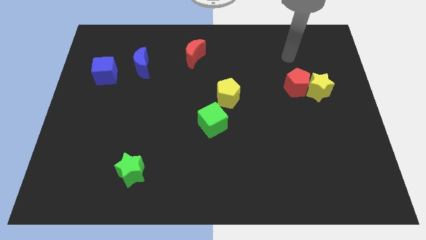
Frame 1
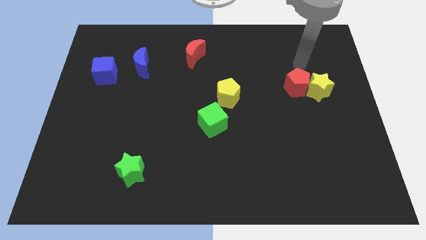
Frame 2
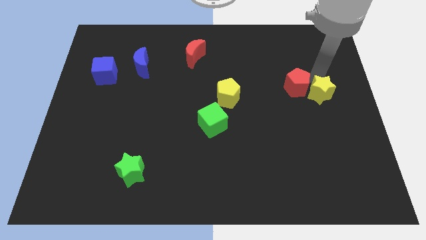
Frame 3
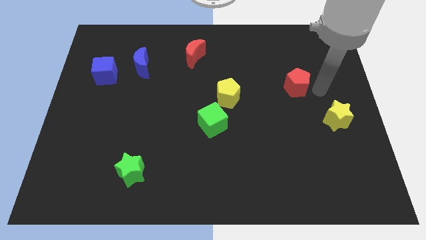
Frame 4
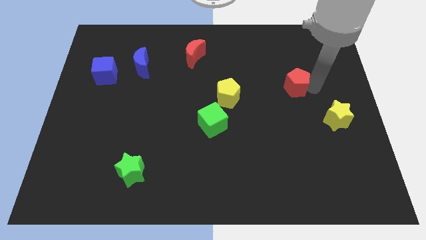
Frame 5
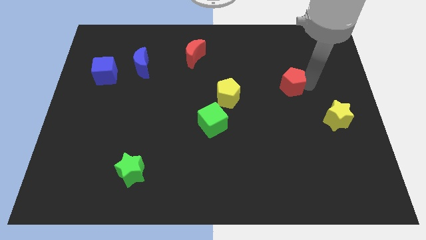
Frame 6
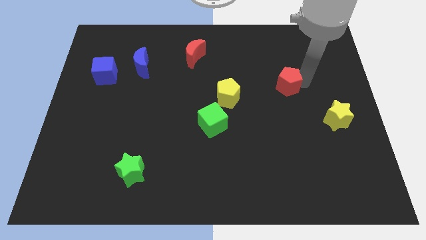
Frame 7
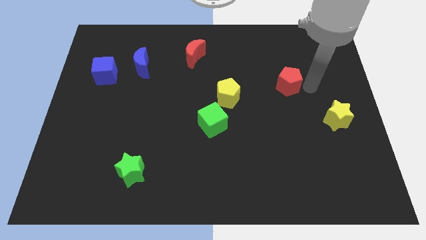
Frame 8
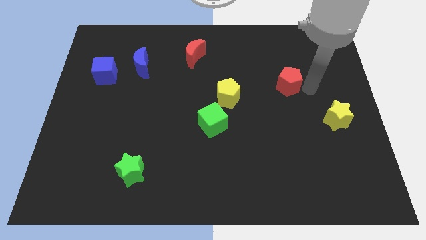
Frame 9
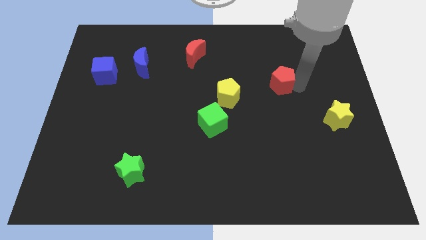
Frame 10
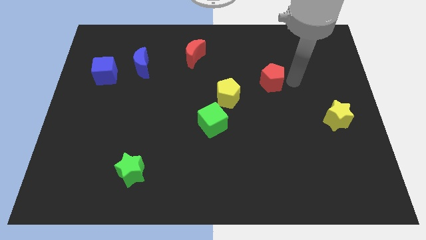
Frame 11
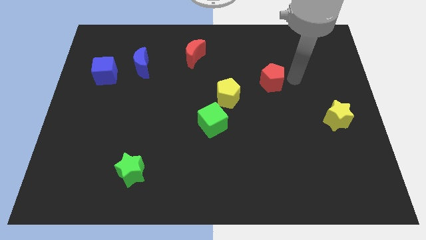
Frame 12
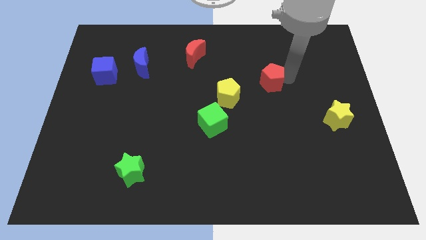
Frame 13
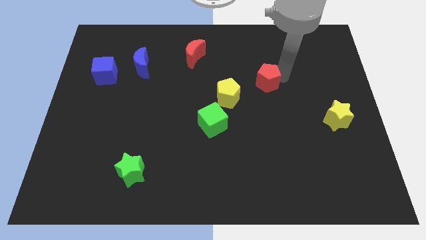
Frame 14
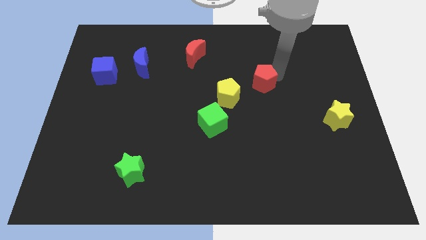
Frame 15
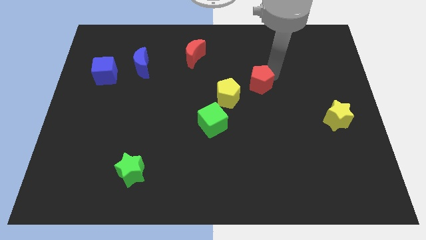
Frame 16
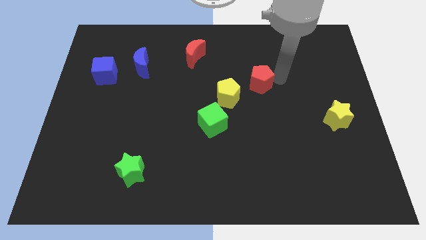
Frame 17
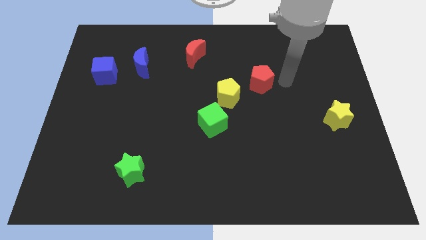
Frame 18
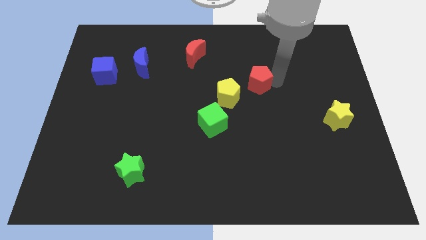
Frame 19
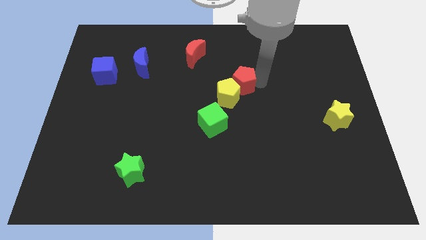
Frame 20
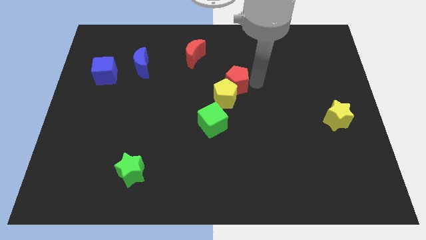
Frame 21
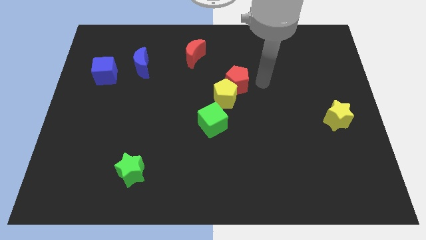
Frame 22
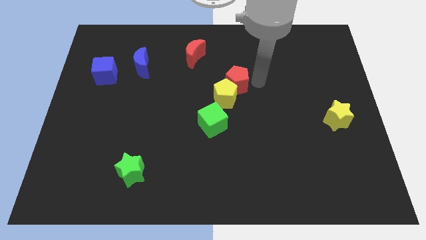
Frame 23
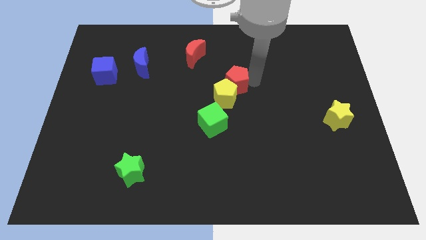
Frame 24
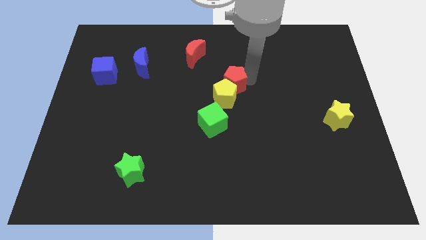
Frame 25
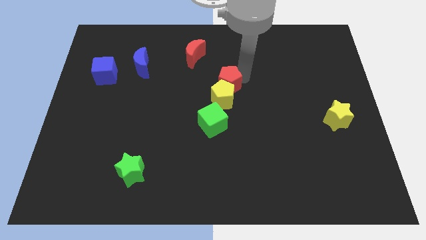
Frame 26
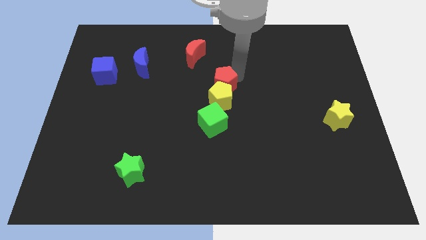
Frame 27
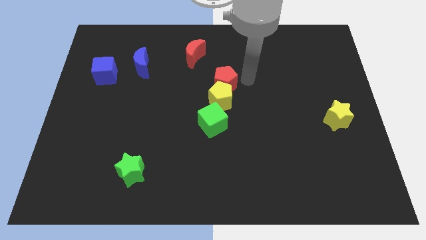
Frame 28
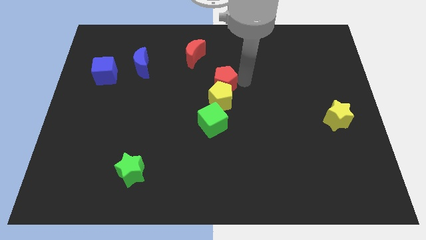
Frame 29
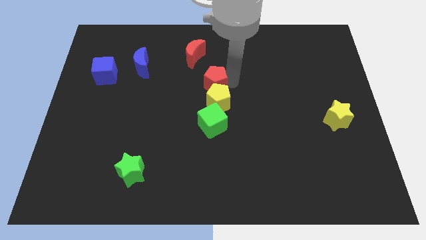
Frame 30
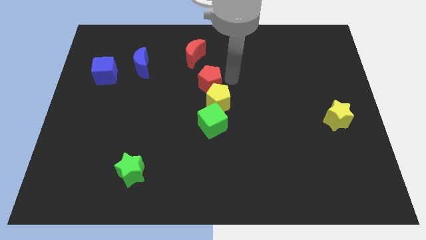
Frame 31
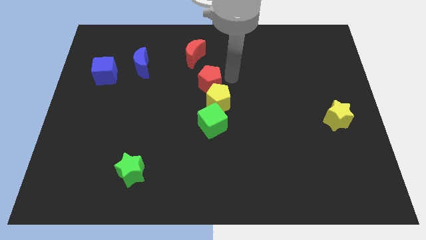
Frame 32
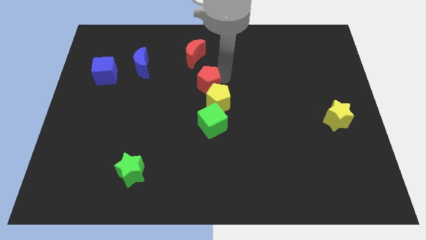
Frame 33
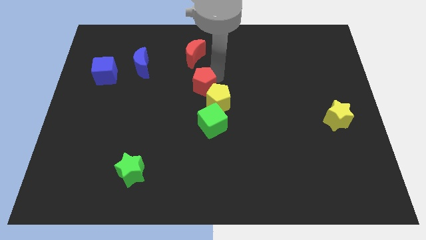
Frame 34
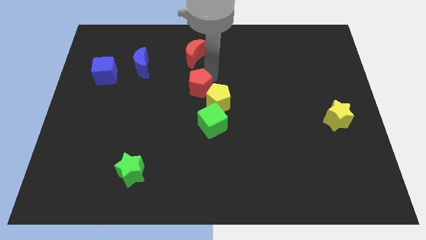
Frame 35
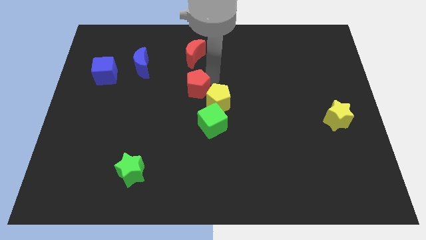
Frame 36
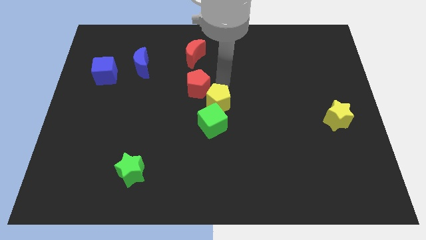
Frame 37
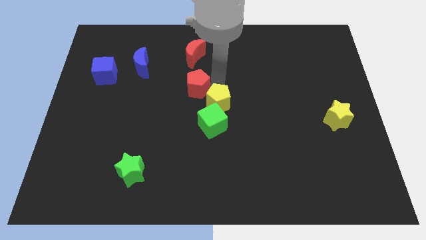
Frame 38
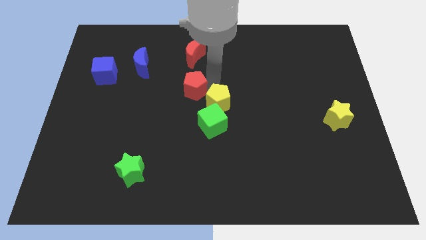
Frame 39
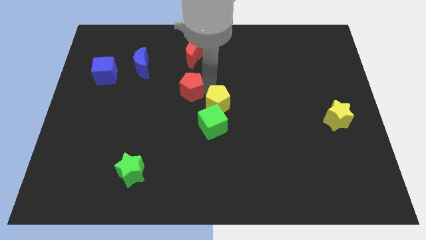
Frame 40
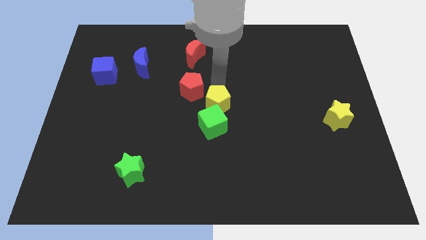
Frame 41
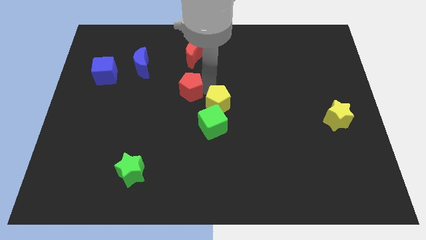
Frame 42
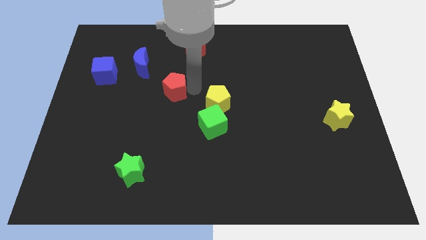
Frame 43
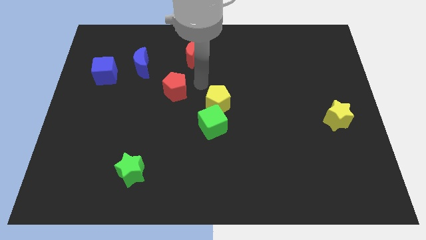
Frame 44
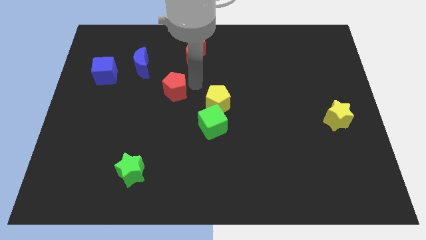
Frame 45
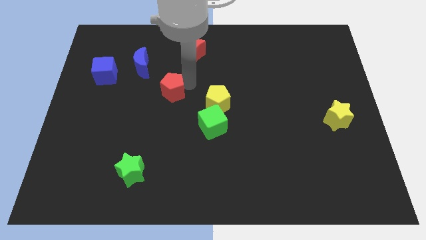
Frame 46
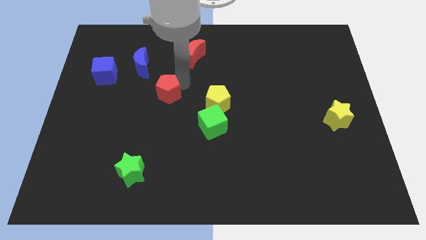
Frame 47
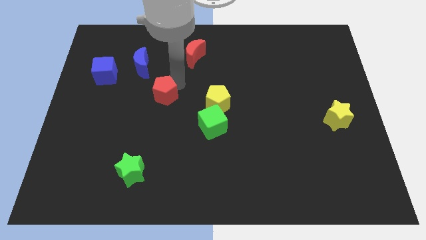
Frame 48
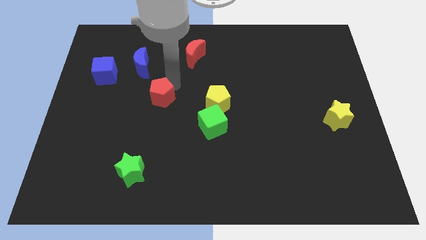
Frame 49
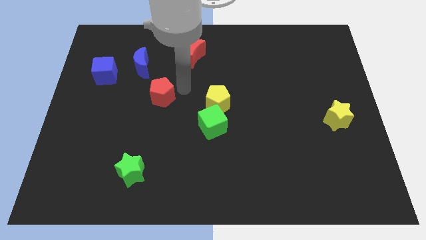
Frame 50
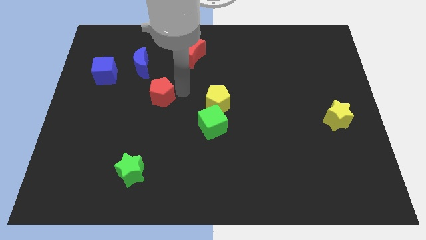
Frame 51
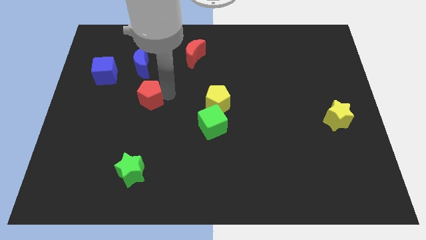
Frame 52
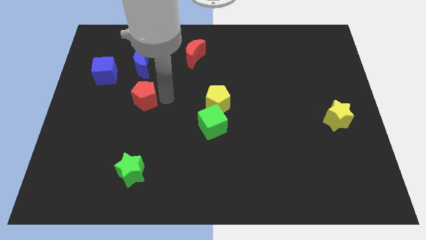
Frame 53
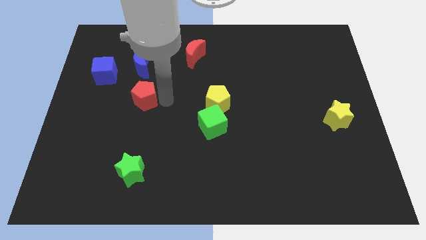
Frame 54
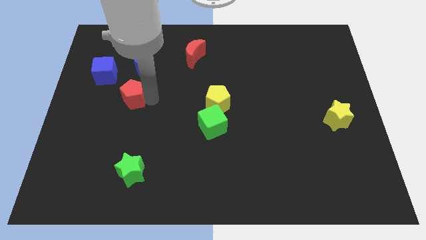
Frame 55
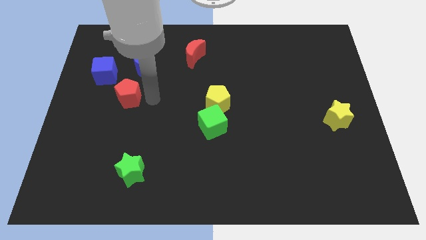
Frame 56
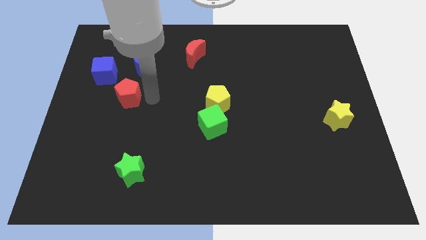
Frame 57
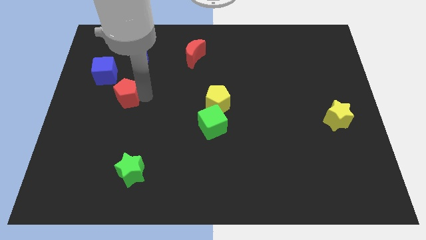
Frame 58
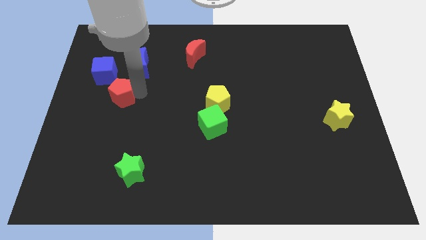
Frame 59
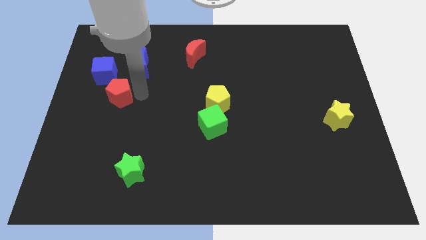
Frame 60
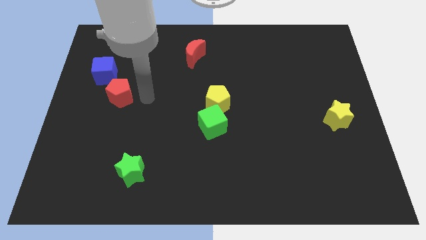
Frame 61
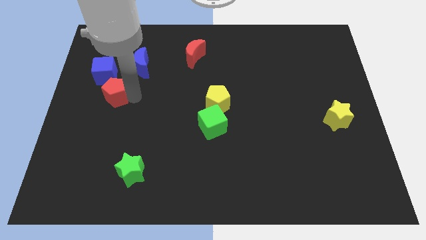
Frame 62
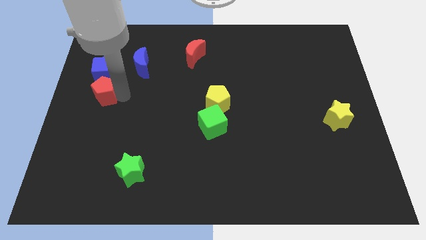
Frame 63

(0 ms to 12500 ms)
put the red pentagon to the left side of the board
